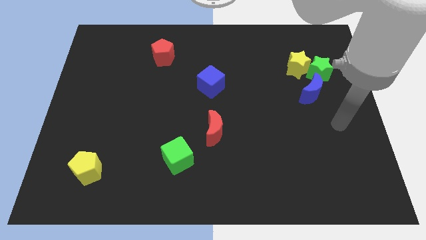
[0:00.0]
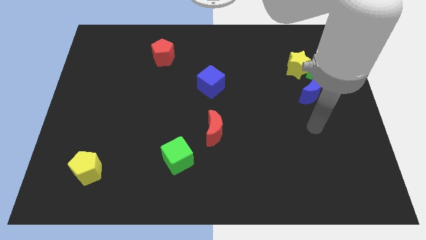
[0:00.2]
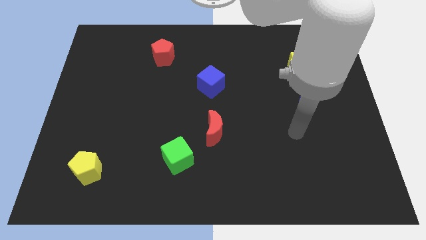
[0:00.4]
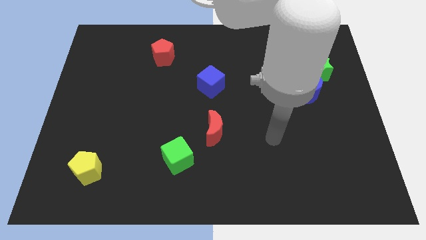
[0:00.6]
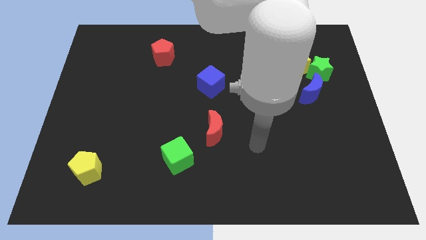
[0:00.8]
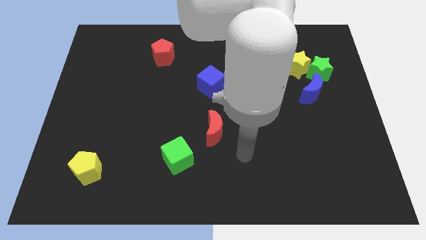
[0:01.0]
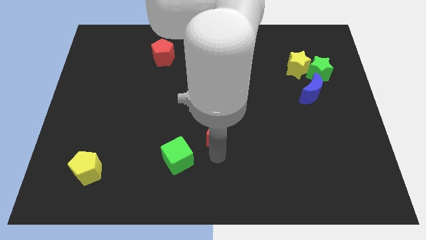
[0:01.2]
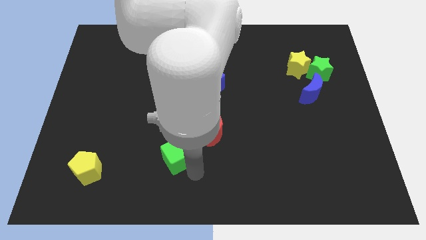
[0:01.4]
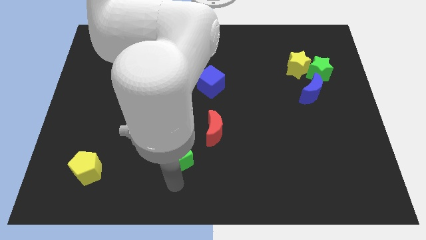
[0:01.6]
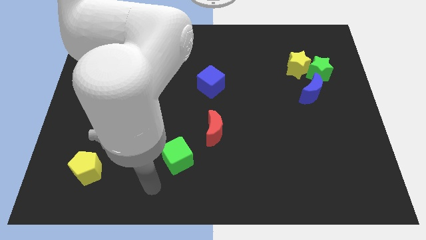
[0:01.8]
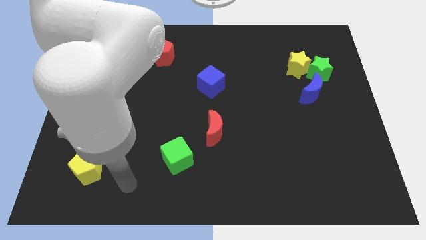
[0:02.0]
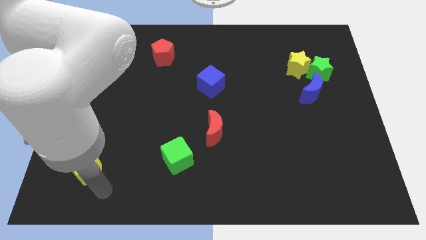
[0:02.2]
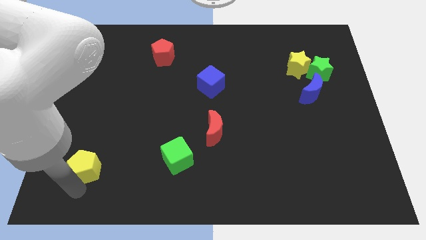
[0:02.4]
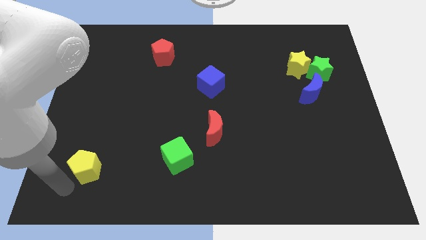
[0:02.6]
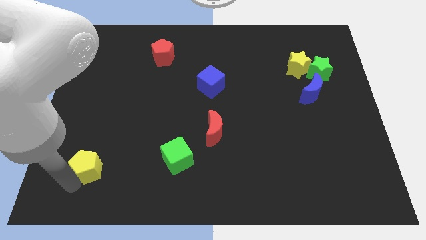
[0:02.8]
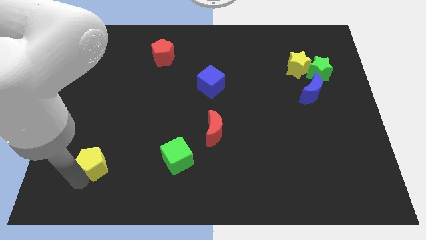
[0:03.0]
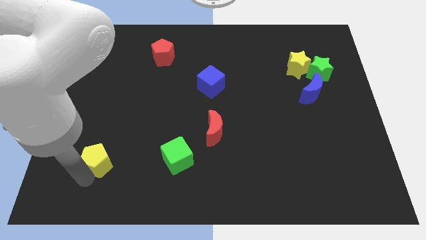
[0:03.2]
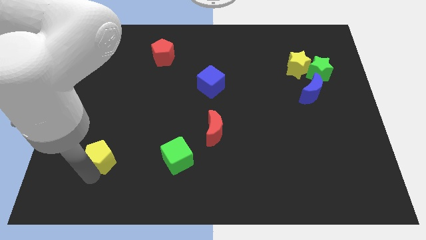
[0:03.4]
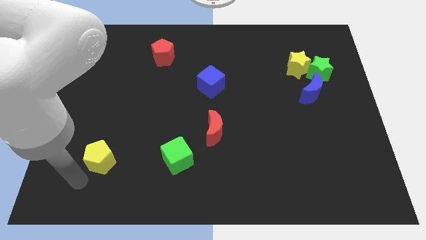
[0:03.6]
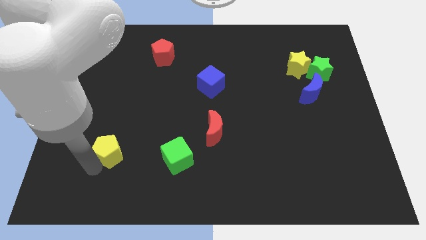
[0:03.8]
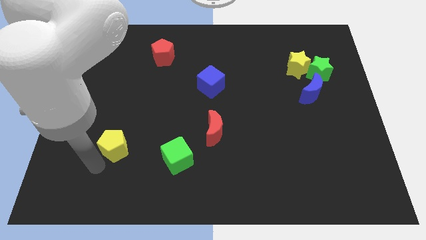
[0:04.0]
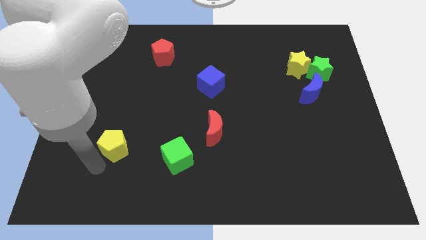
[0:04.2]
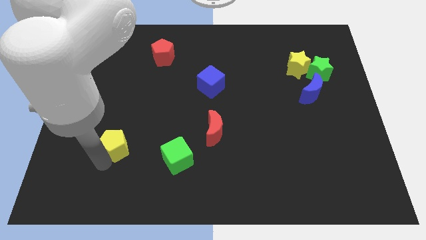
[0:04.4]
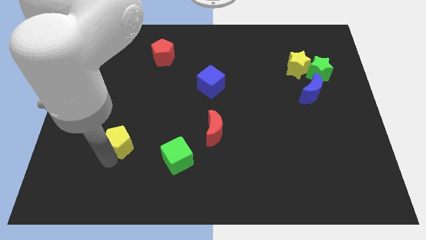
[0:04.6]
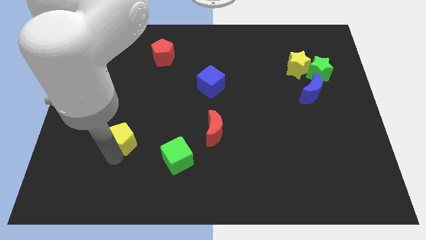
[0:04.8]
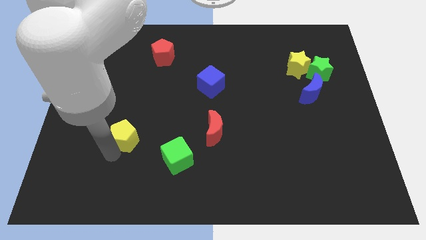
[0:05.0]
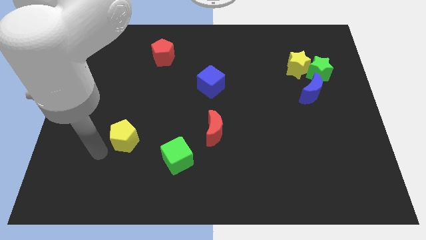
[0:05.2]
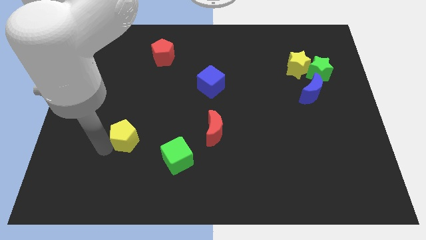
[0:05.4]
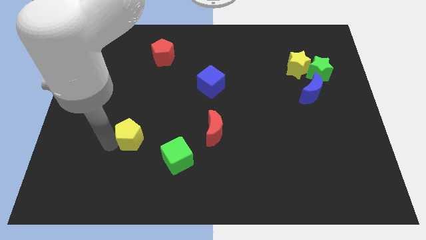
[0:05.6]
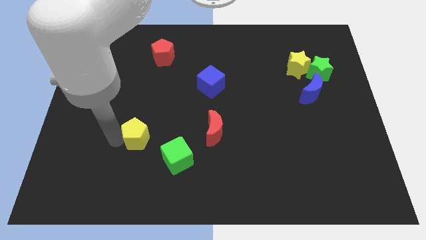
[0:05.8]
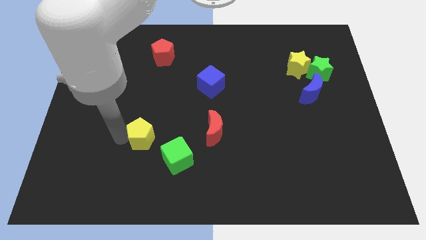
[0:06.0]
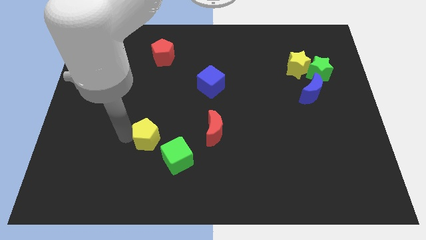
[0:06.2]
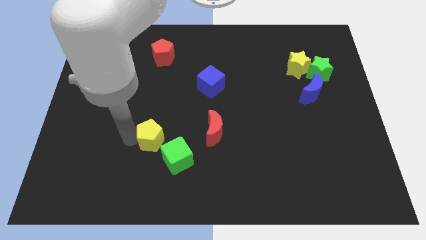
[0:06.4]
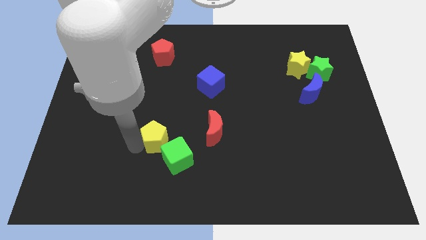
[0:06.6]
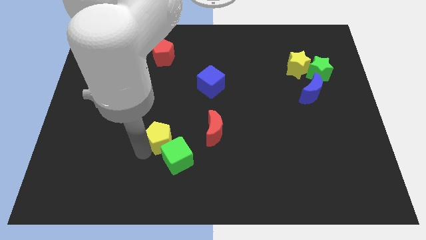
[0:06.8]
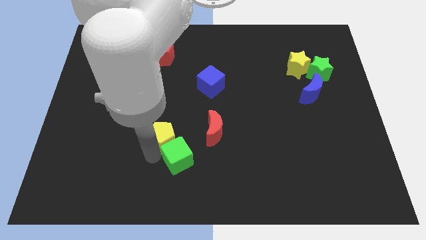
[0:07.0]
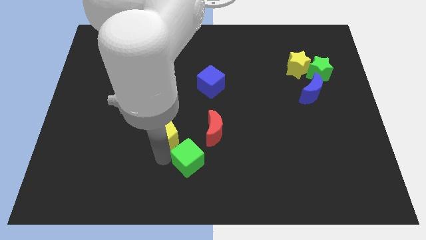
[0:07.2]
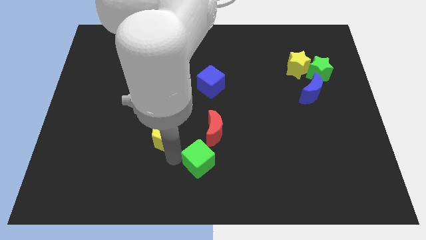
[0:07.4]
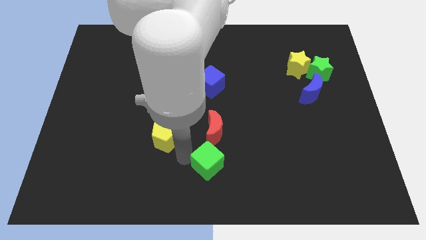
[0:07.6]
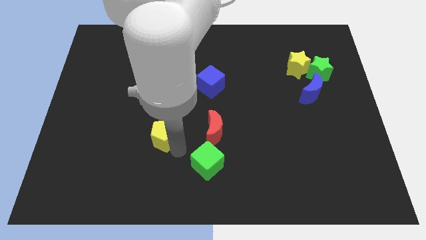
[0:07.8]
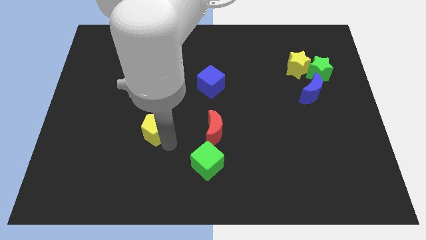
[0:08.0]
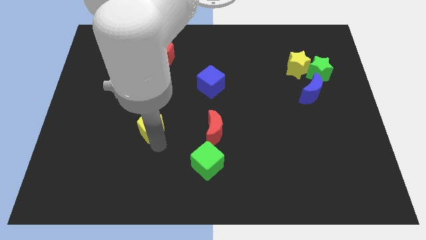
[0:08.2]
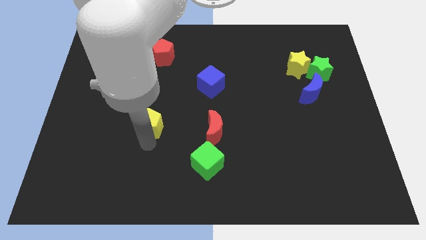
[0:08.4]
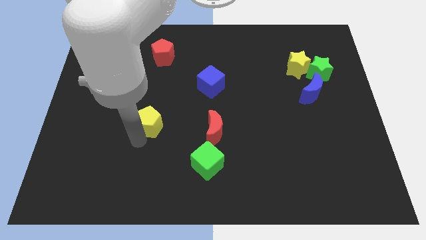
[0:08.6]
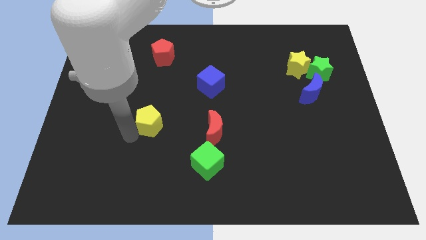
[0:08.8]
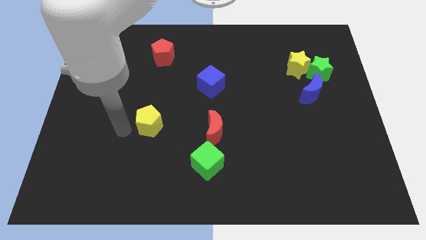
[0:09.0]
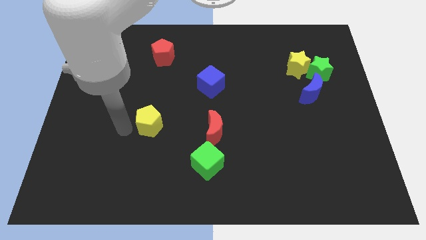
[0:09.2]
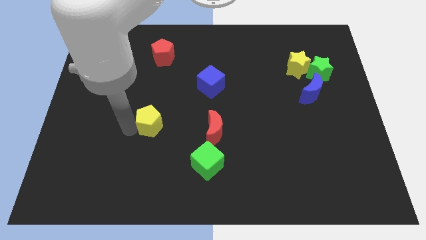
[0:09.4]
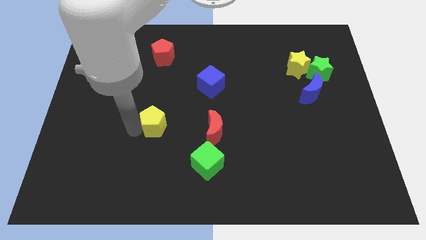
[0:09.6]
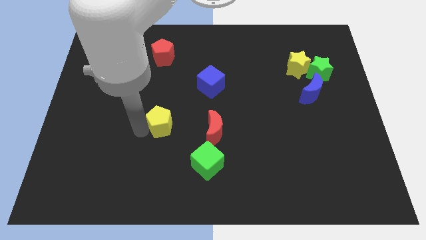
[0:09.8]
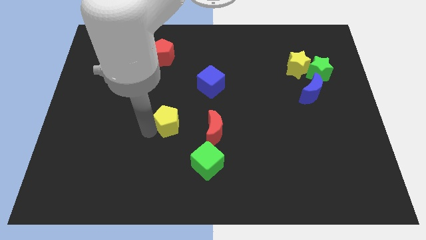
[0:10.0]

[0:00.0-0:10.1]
put the yellow pentagon to the center of the board

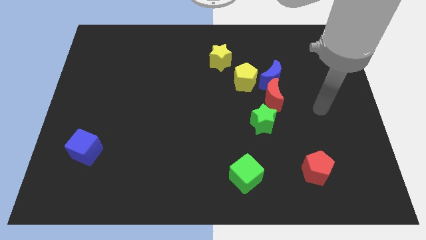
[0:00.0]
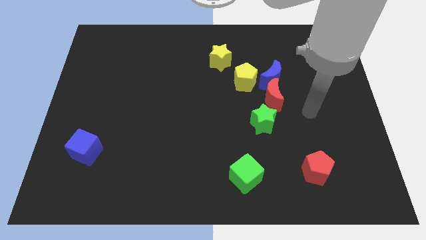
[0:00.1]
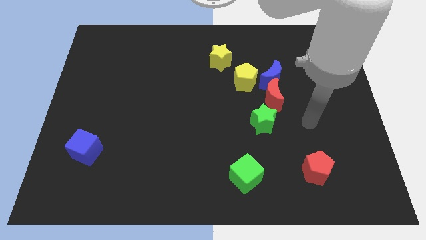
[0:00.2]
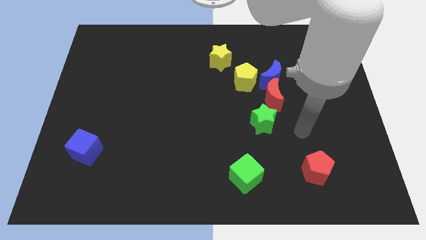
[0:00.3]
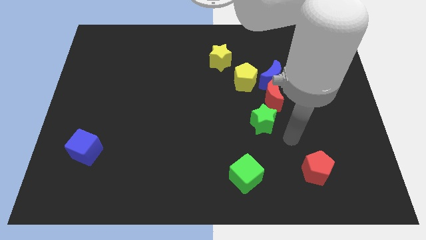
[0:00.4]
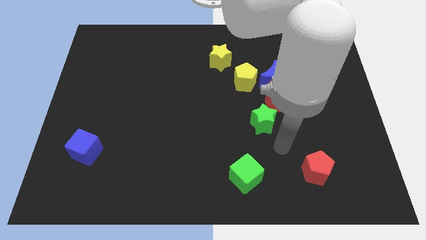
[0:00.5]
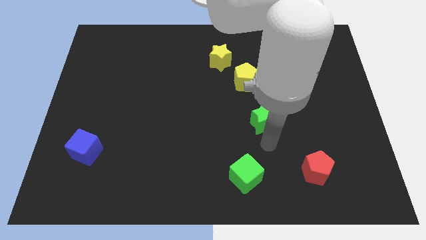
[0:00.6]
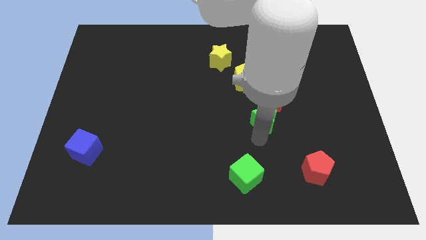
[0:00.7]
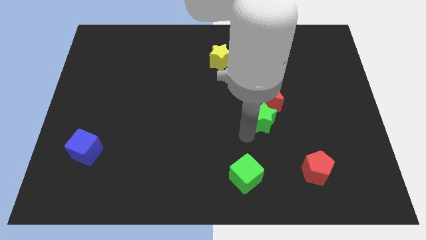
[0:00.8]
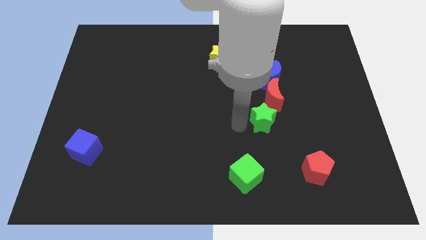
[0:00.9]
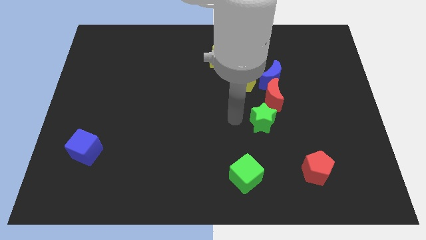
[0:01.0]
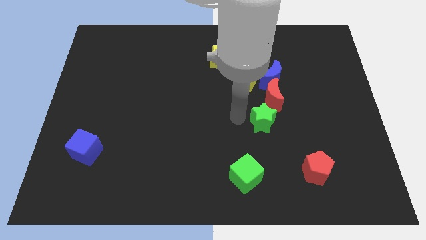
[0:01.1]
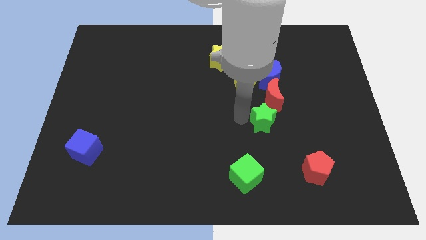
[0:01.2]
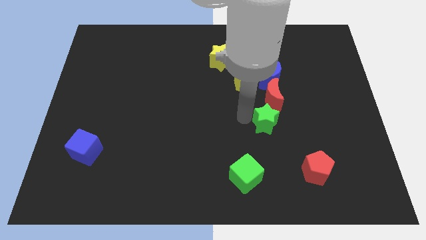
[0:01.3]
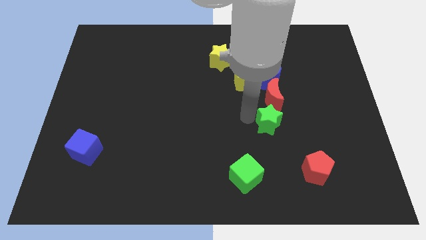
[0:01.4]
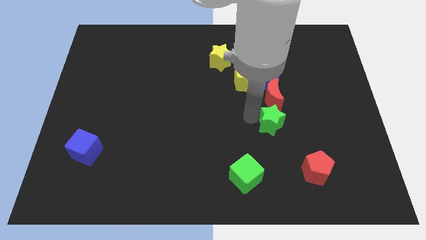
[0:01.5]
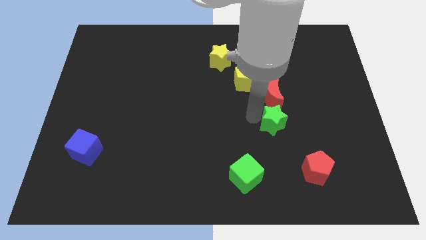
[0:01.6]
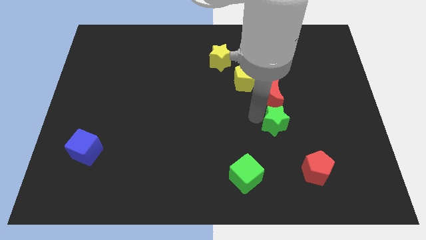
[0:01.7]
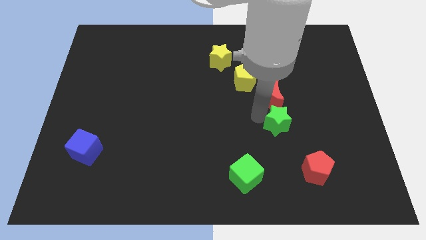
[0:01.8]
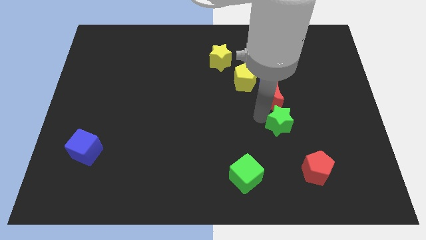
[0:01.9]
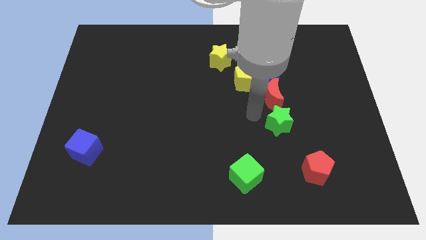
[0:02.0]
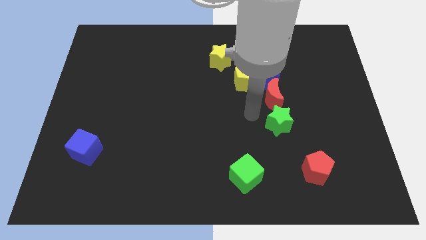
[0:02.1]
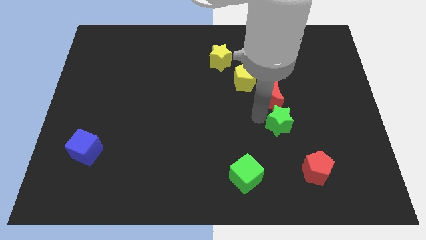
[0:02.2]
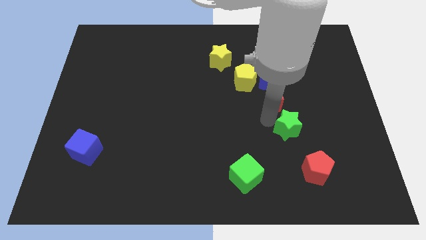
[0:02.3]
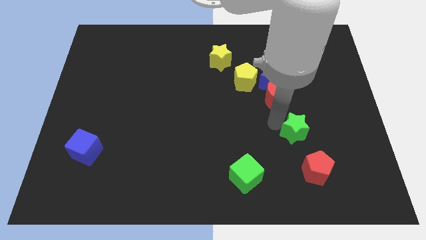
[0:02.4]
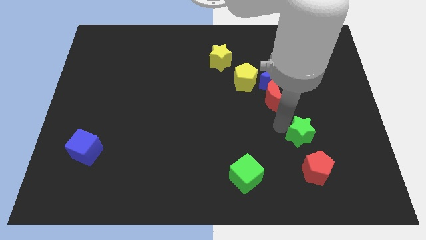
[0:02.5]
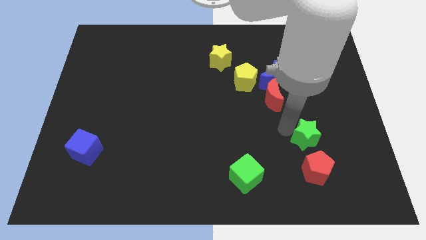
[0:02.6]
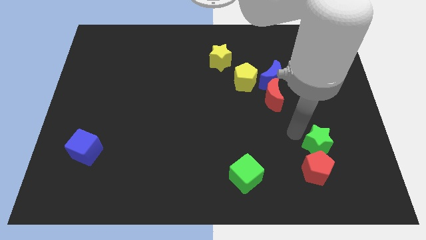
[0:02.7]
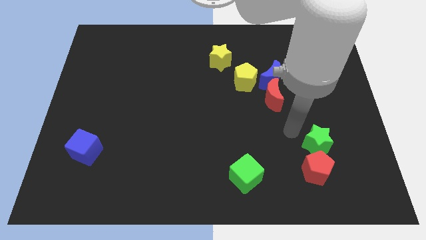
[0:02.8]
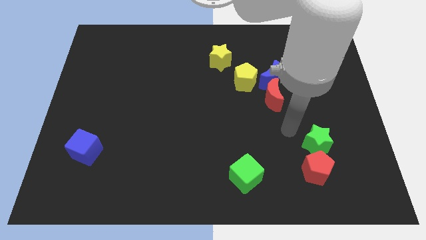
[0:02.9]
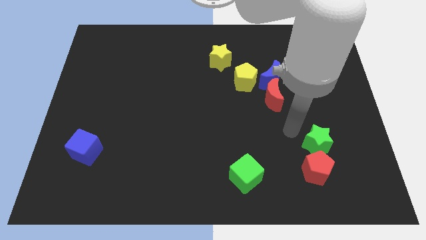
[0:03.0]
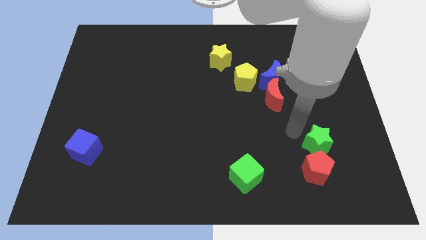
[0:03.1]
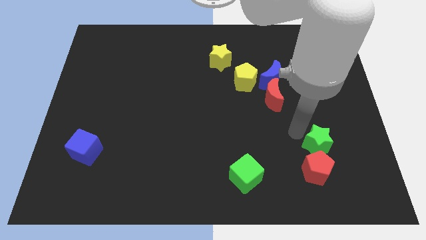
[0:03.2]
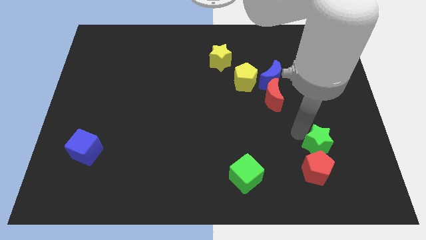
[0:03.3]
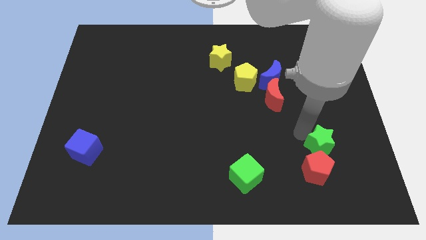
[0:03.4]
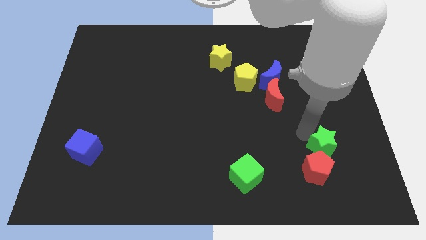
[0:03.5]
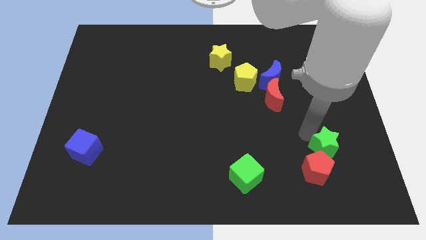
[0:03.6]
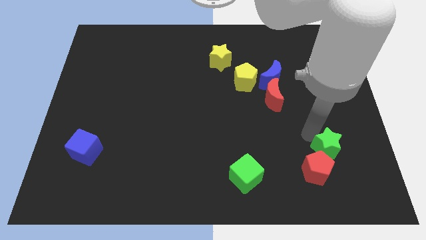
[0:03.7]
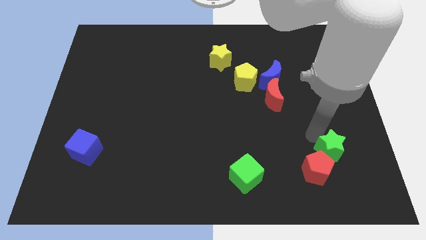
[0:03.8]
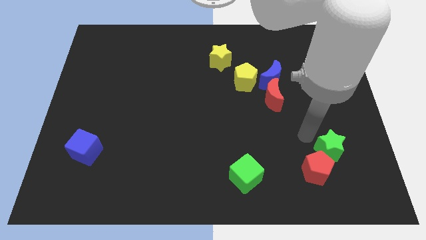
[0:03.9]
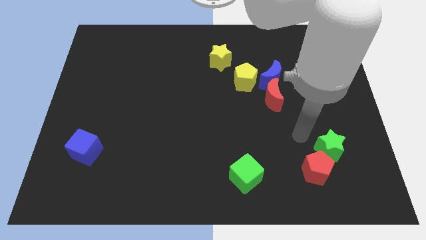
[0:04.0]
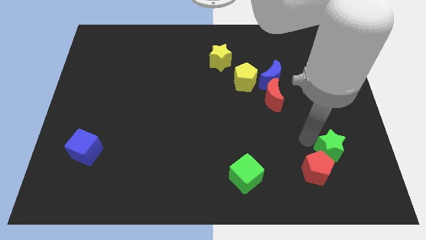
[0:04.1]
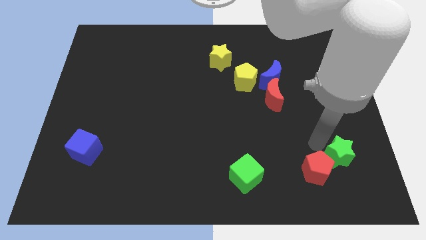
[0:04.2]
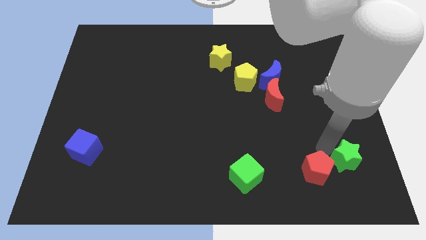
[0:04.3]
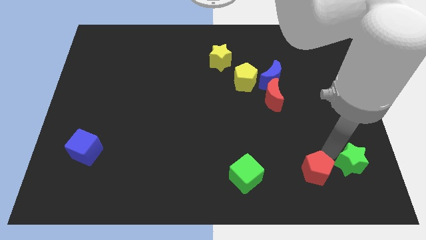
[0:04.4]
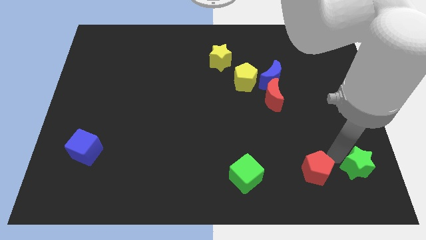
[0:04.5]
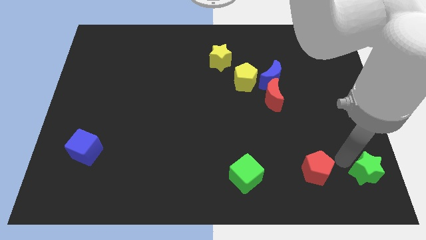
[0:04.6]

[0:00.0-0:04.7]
slide the green star to the lower right corner
